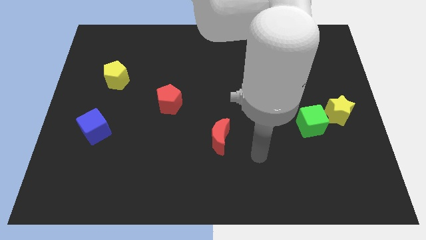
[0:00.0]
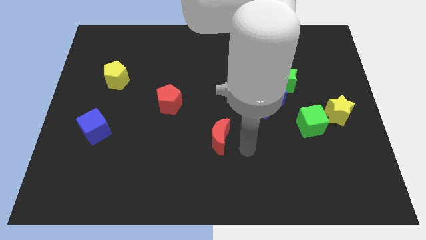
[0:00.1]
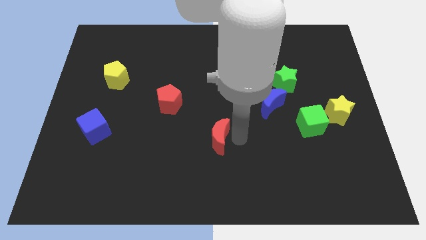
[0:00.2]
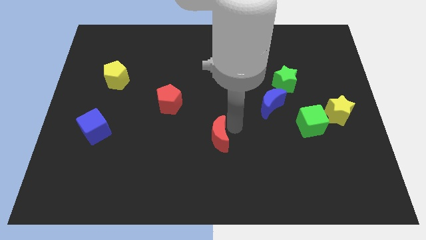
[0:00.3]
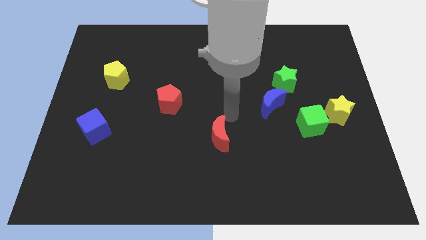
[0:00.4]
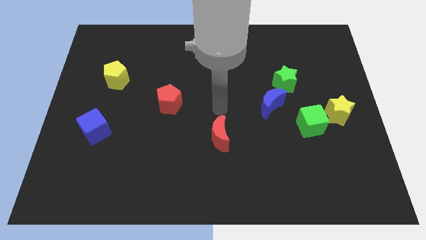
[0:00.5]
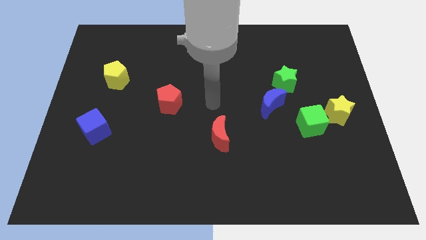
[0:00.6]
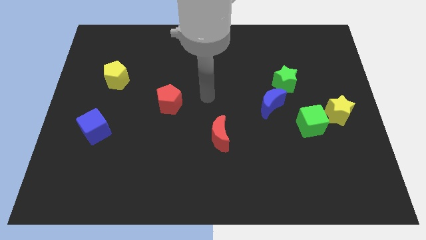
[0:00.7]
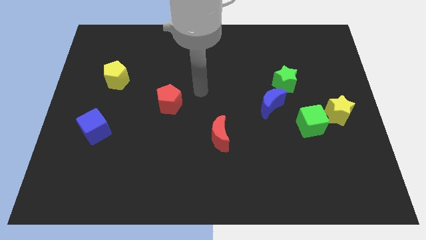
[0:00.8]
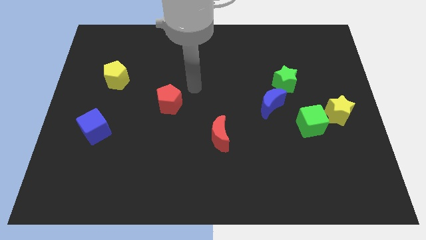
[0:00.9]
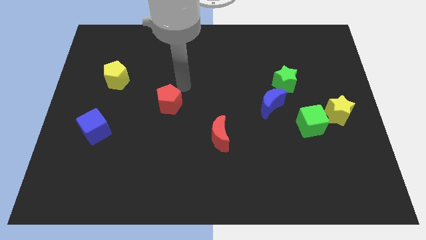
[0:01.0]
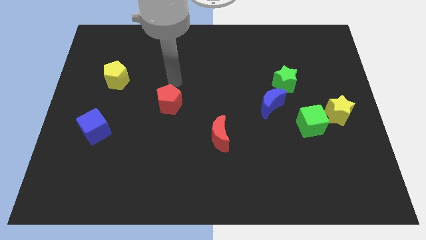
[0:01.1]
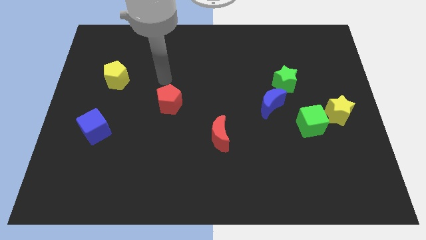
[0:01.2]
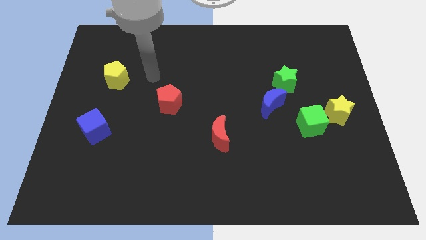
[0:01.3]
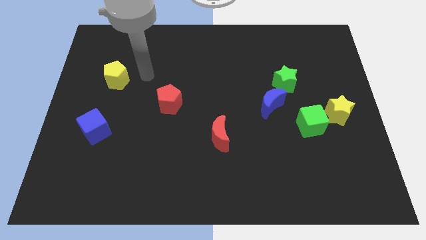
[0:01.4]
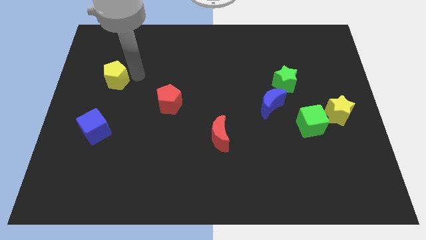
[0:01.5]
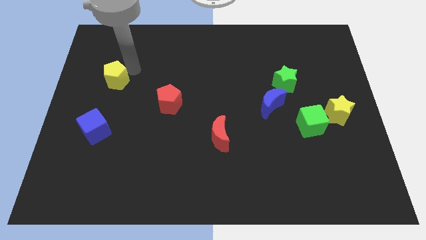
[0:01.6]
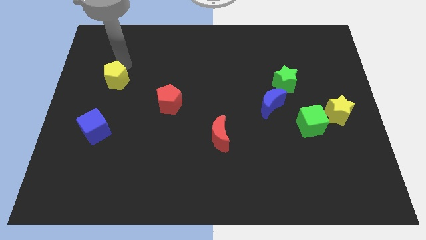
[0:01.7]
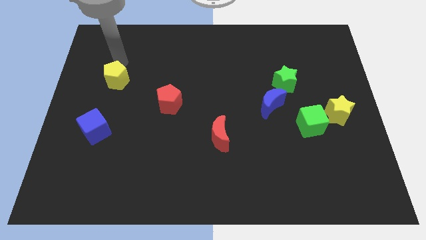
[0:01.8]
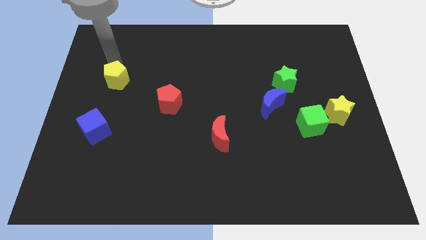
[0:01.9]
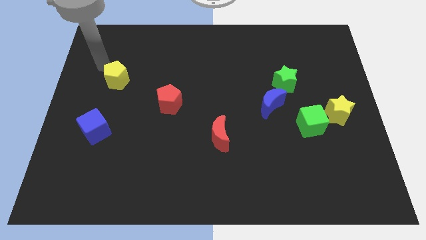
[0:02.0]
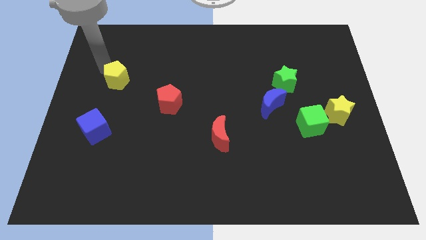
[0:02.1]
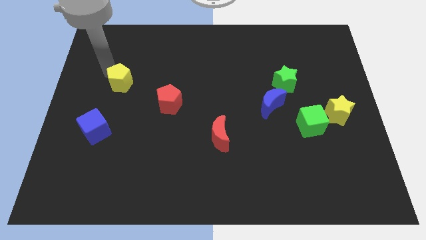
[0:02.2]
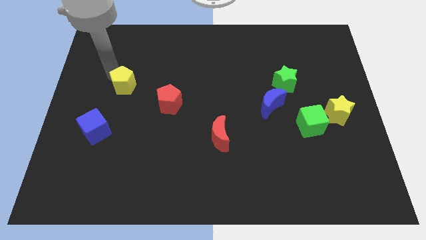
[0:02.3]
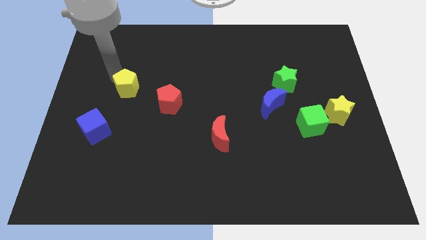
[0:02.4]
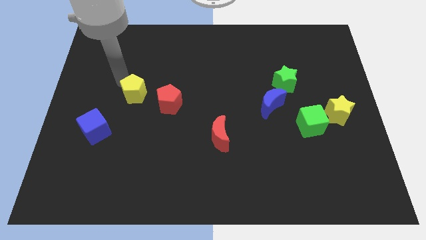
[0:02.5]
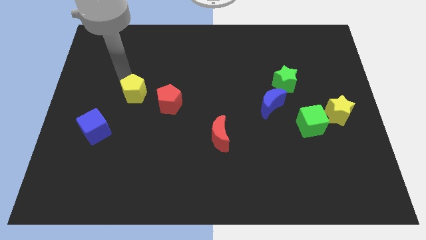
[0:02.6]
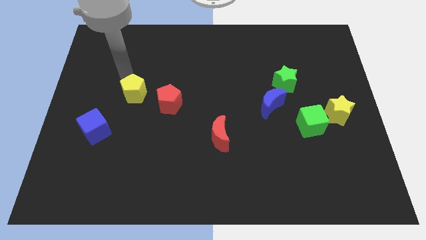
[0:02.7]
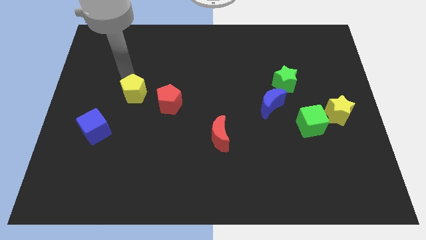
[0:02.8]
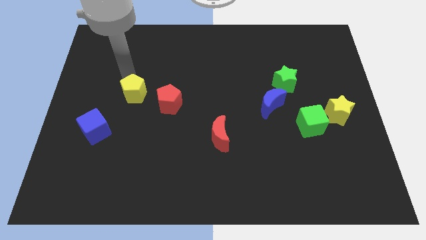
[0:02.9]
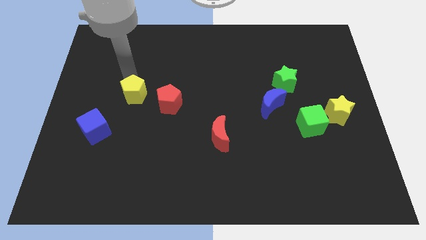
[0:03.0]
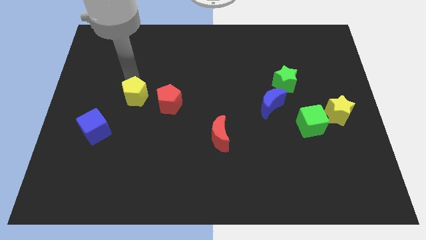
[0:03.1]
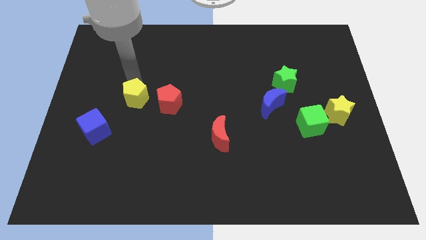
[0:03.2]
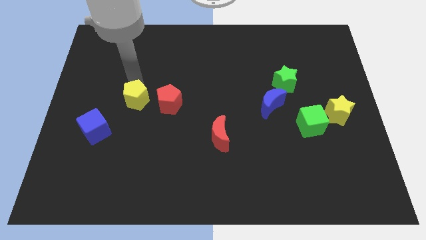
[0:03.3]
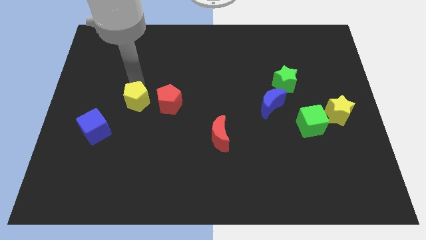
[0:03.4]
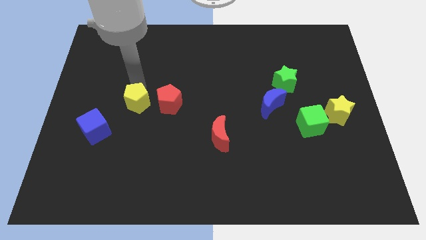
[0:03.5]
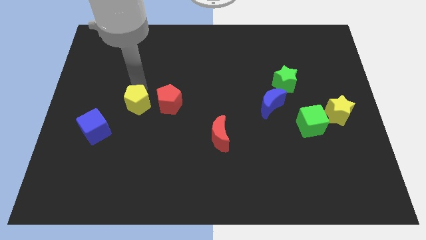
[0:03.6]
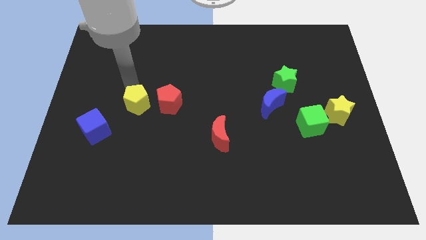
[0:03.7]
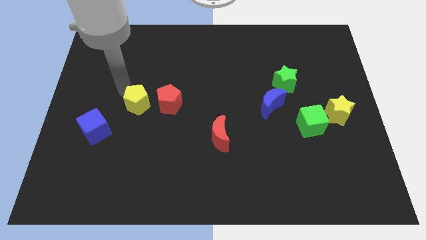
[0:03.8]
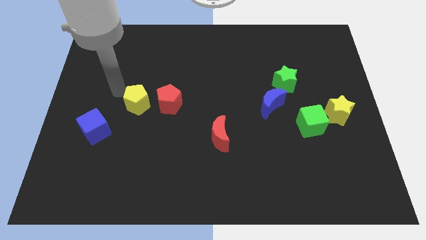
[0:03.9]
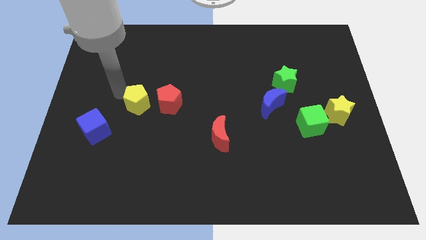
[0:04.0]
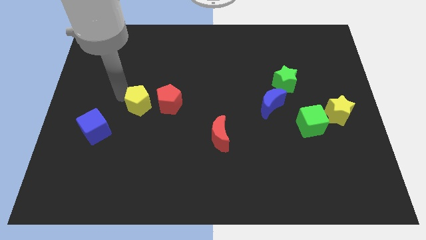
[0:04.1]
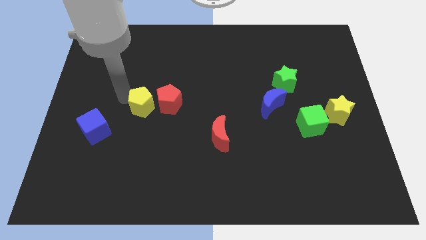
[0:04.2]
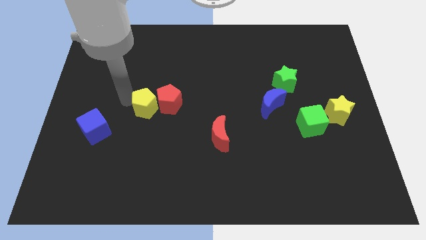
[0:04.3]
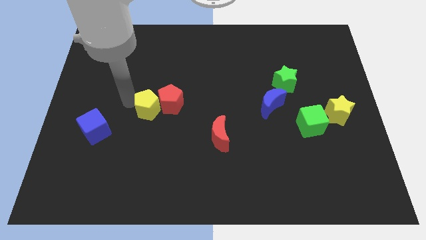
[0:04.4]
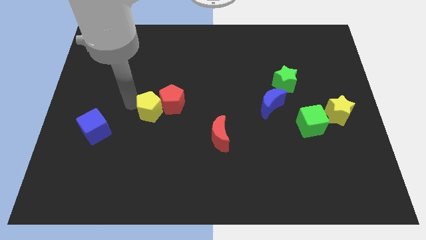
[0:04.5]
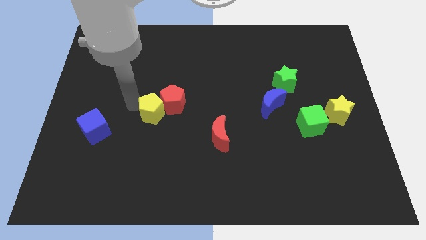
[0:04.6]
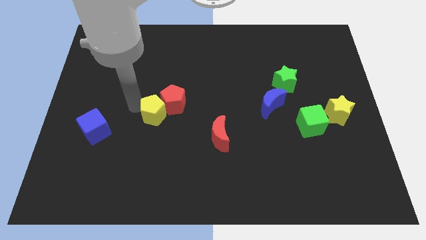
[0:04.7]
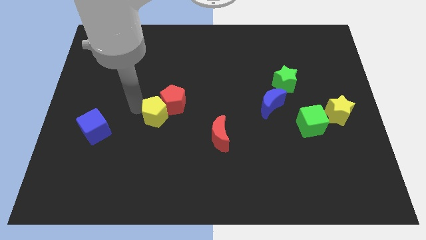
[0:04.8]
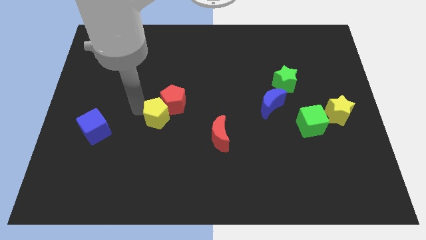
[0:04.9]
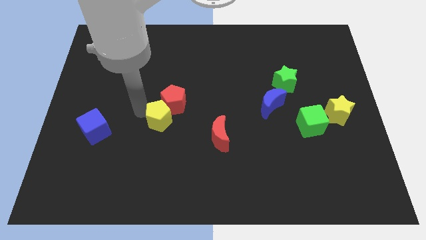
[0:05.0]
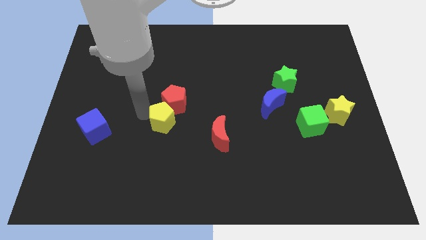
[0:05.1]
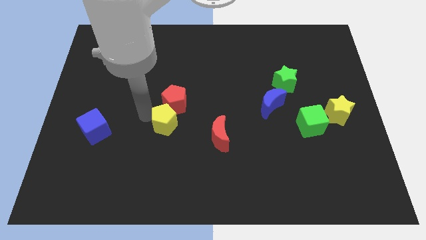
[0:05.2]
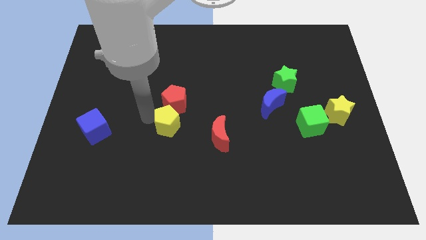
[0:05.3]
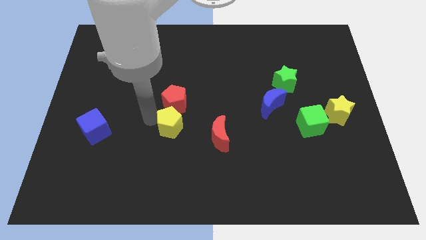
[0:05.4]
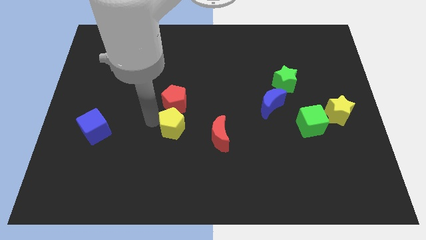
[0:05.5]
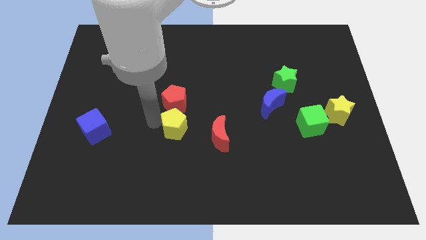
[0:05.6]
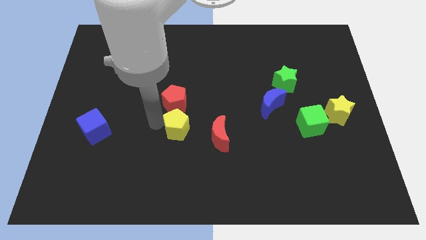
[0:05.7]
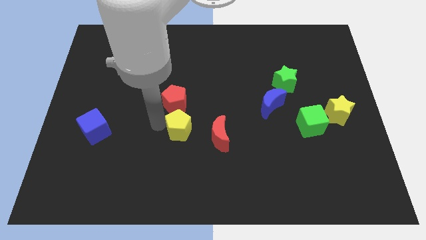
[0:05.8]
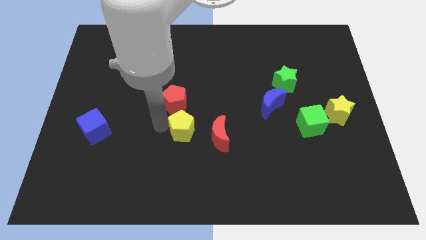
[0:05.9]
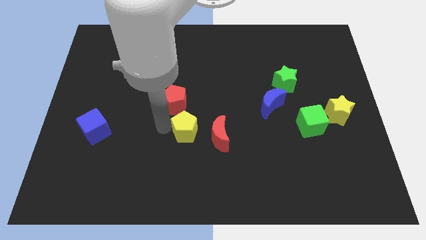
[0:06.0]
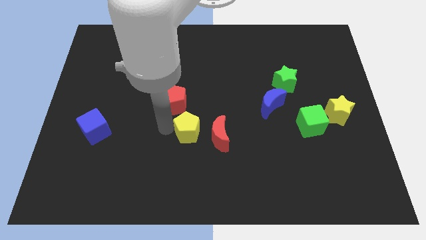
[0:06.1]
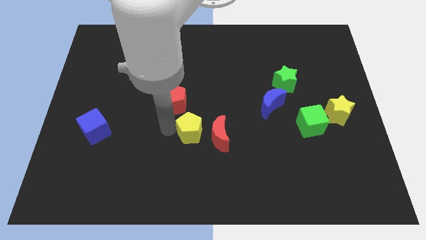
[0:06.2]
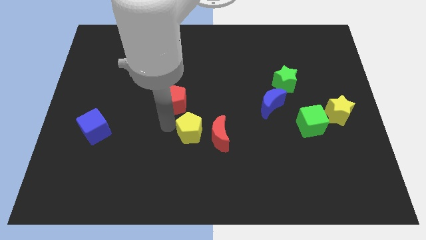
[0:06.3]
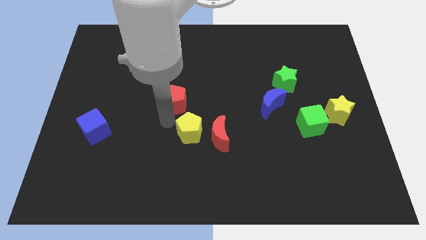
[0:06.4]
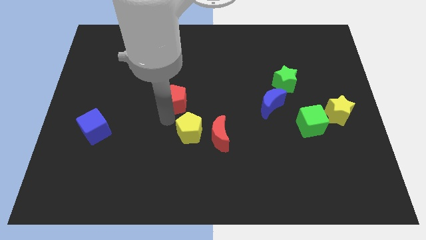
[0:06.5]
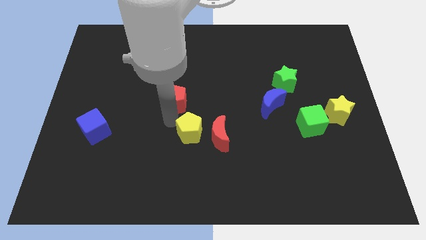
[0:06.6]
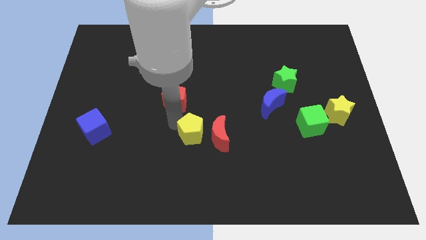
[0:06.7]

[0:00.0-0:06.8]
put the yellow pentagon towards the red moon

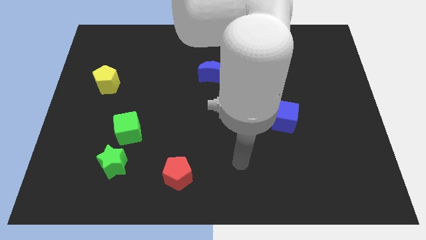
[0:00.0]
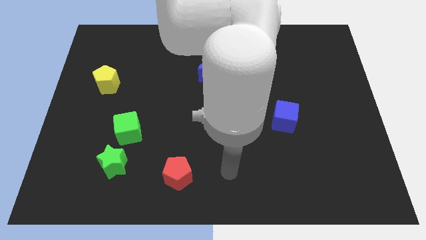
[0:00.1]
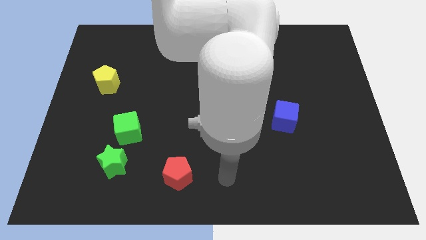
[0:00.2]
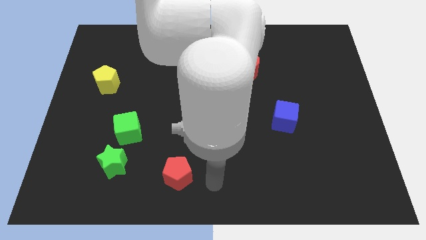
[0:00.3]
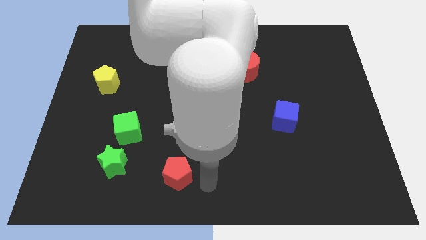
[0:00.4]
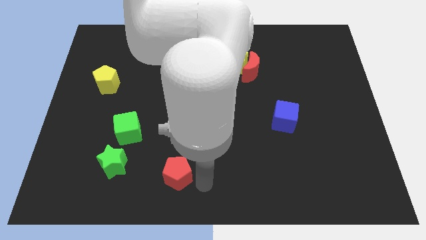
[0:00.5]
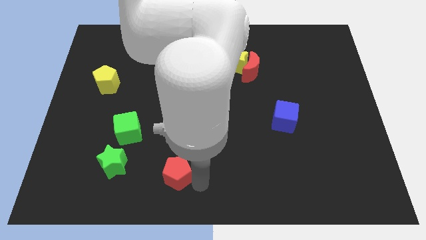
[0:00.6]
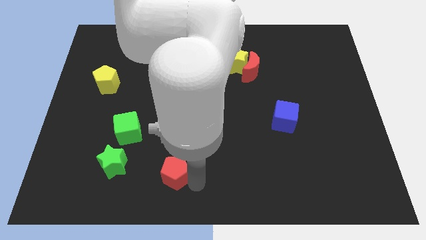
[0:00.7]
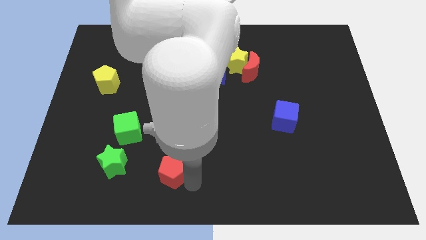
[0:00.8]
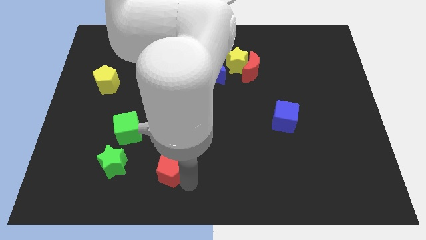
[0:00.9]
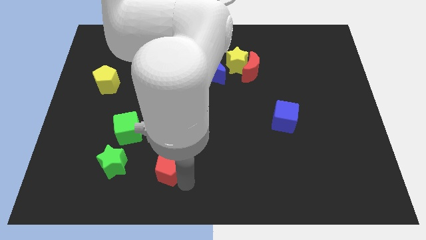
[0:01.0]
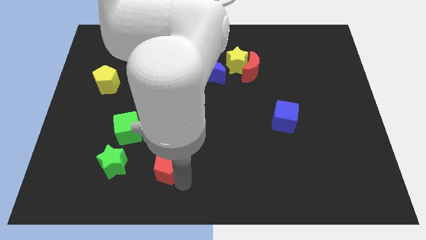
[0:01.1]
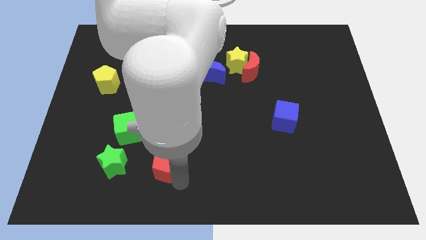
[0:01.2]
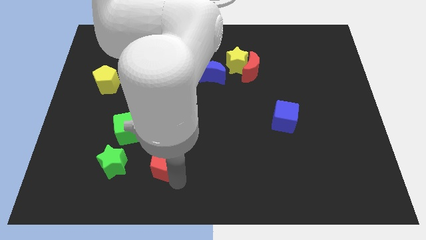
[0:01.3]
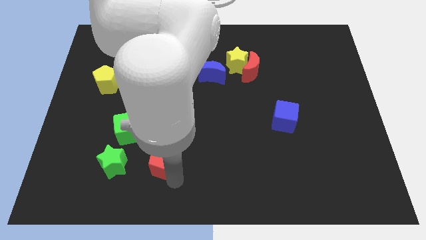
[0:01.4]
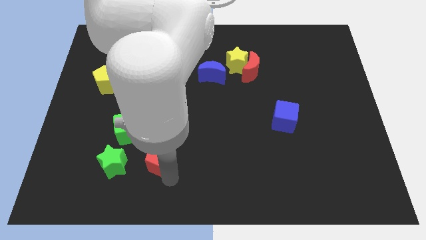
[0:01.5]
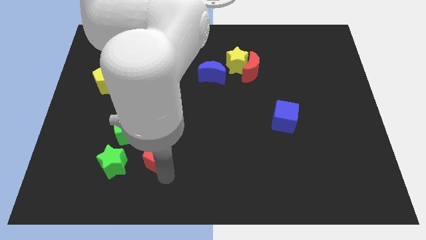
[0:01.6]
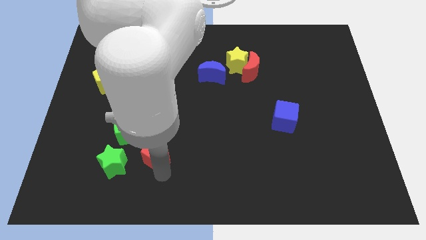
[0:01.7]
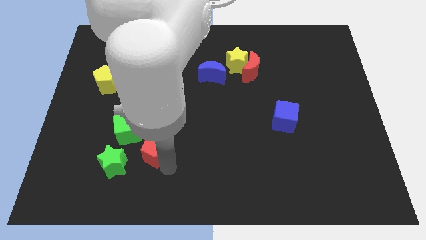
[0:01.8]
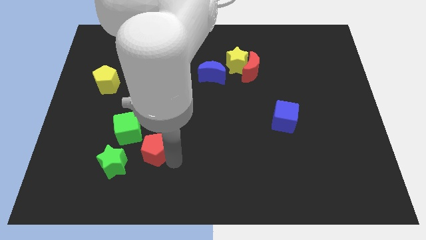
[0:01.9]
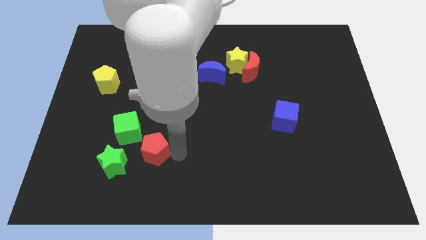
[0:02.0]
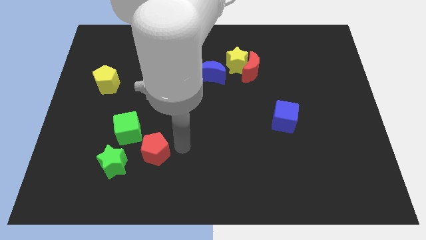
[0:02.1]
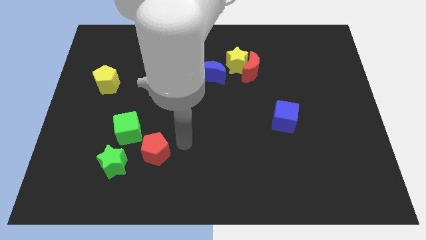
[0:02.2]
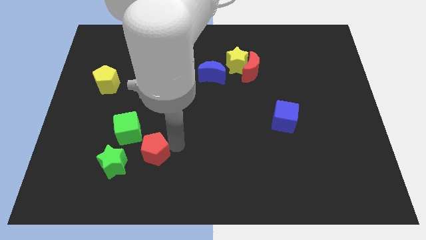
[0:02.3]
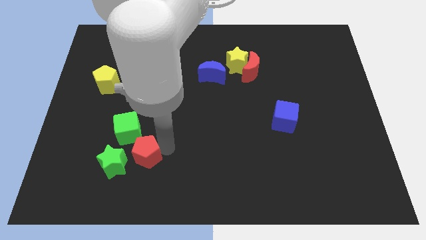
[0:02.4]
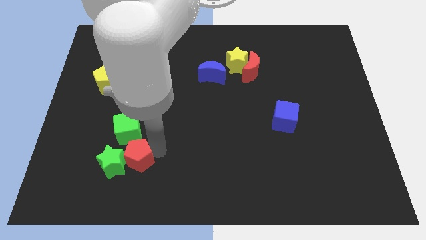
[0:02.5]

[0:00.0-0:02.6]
move the red pentagon to the green star
